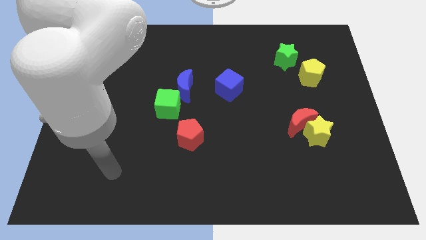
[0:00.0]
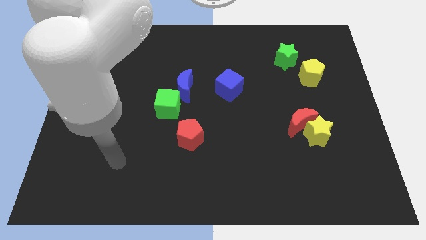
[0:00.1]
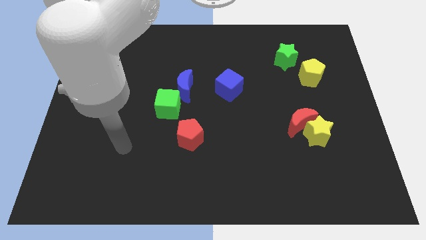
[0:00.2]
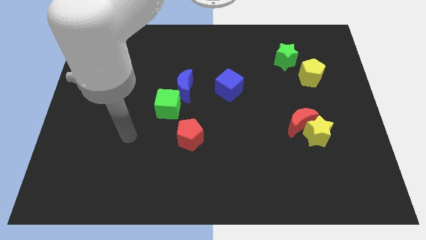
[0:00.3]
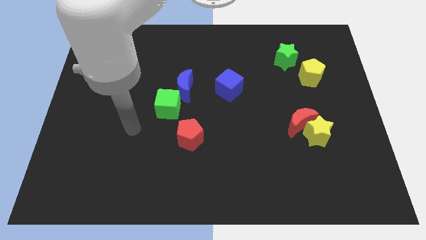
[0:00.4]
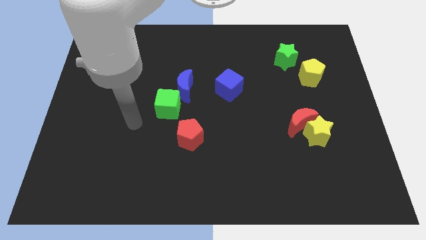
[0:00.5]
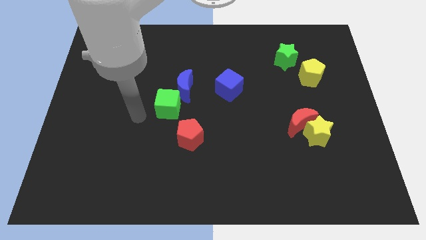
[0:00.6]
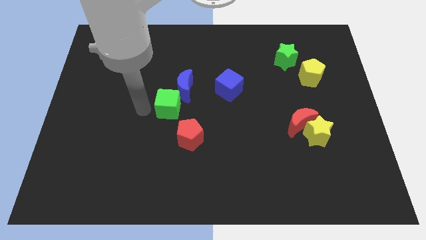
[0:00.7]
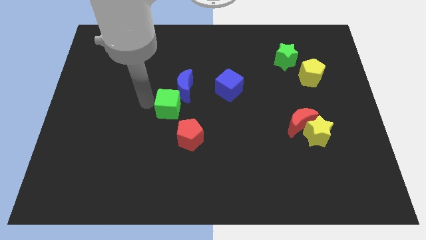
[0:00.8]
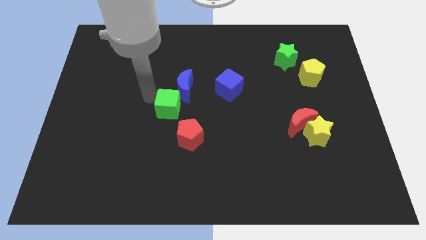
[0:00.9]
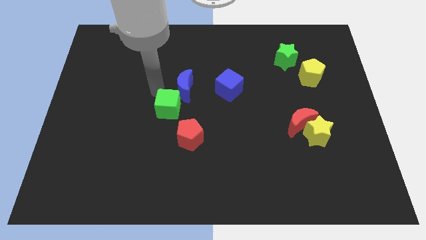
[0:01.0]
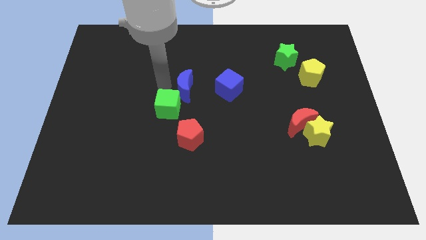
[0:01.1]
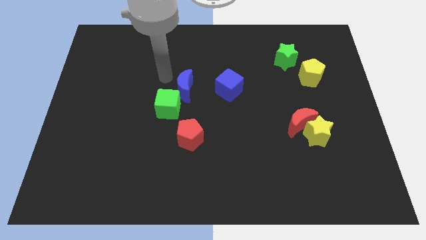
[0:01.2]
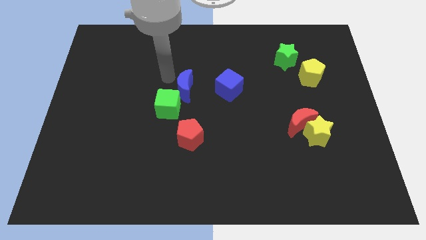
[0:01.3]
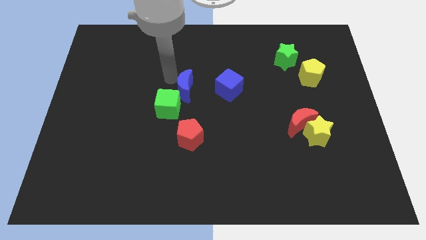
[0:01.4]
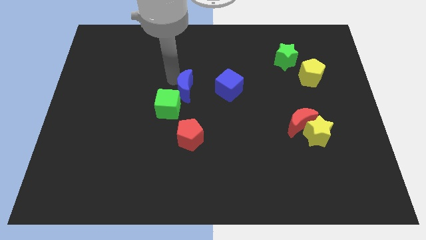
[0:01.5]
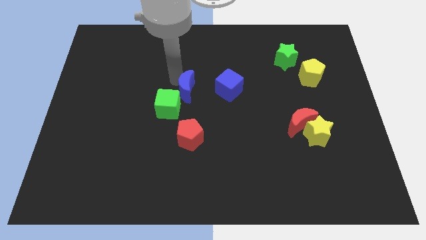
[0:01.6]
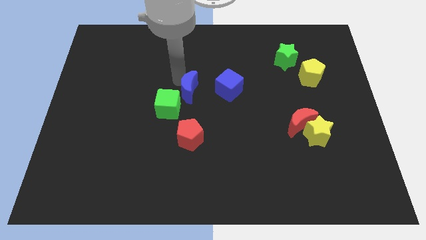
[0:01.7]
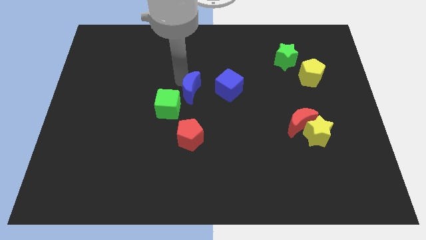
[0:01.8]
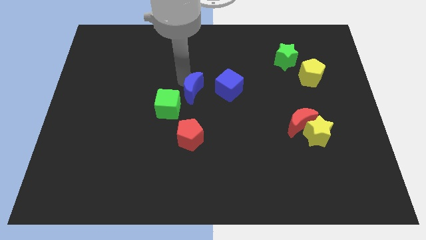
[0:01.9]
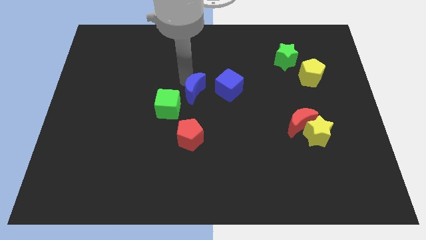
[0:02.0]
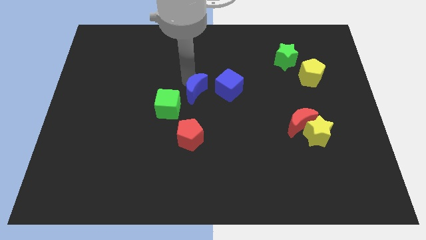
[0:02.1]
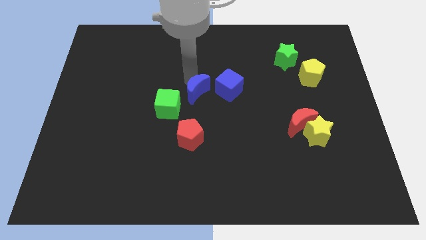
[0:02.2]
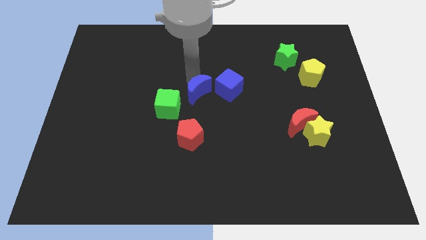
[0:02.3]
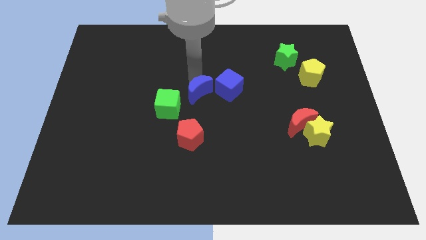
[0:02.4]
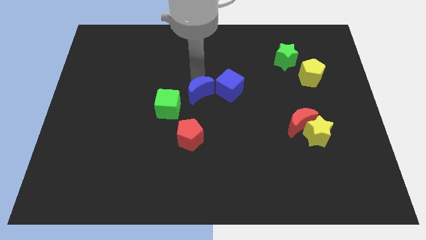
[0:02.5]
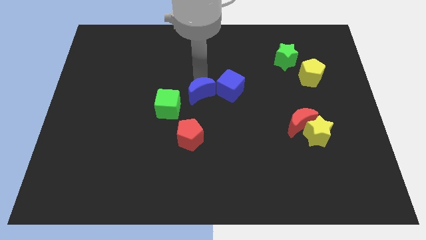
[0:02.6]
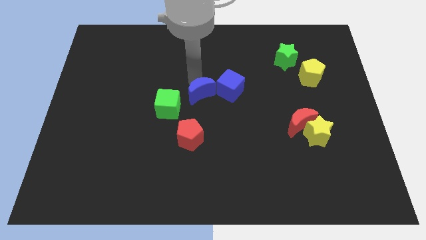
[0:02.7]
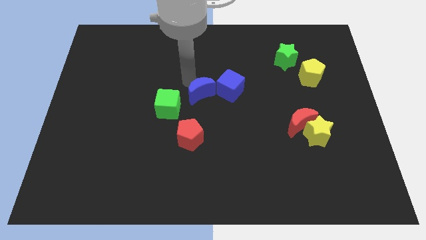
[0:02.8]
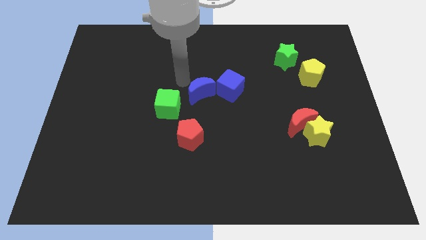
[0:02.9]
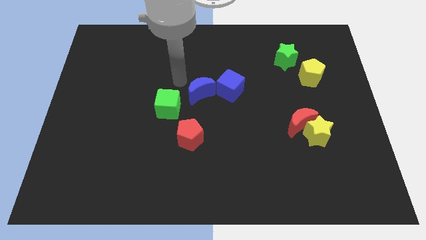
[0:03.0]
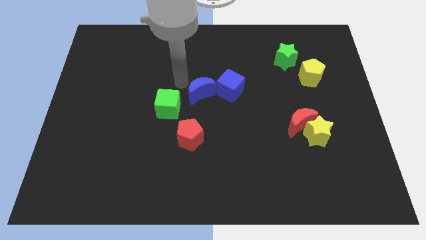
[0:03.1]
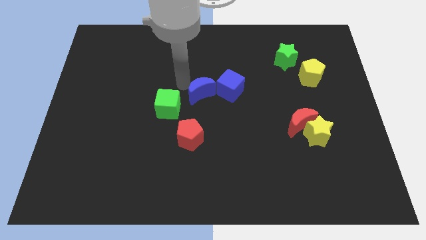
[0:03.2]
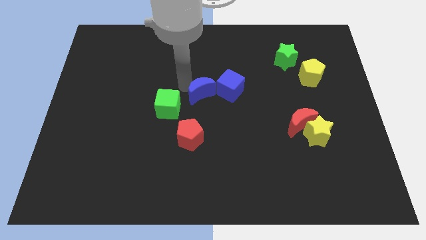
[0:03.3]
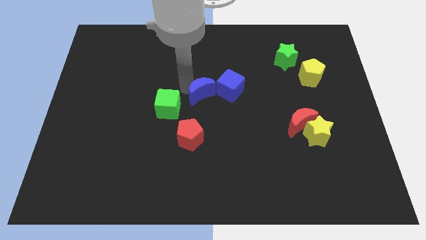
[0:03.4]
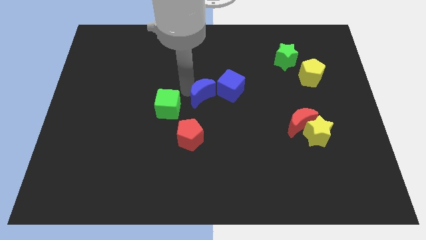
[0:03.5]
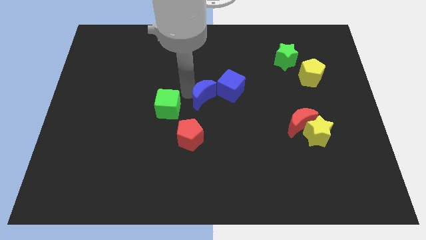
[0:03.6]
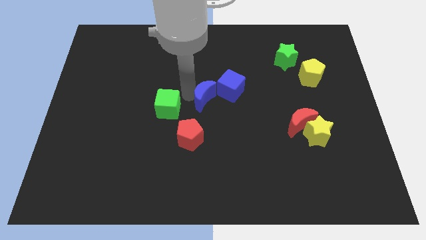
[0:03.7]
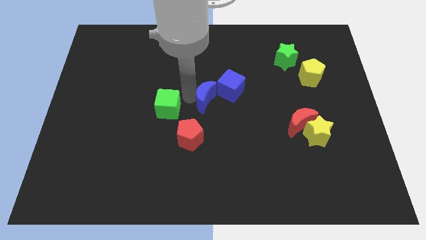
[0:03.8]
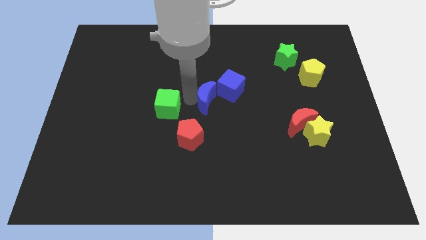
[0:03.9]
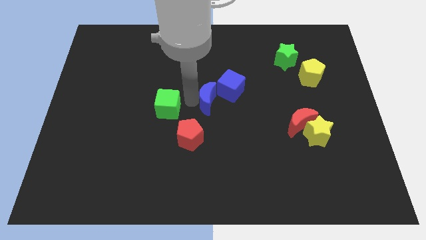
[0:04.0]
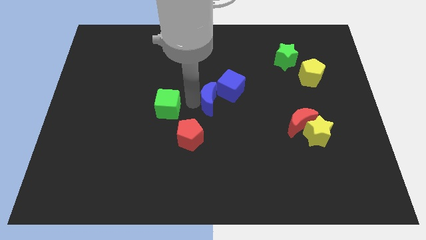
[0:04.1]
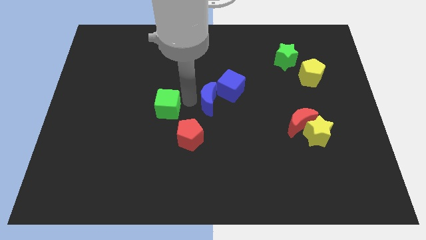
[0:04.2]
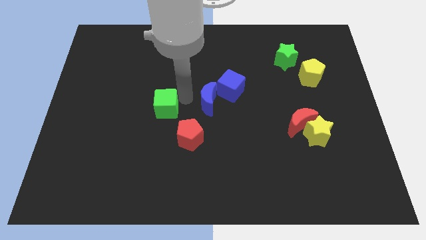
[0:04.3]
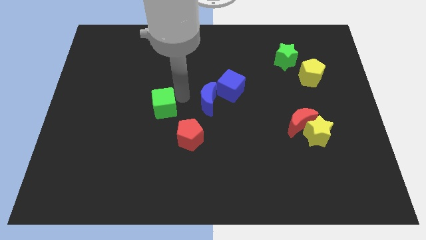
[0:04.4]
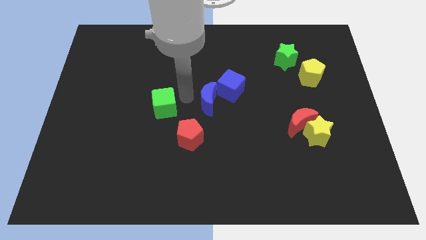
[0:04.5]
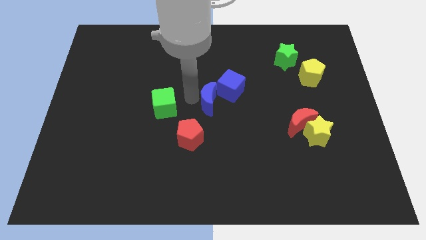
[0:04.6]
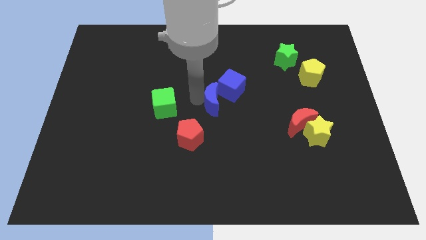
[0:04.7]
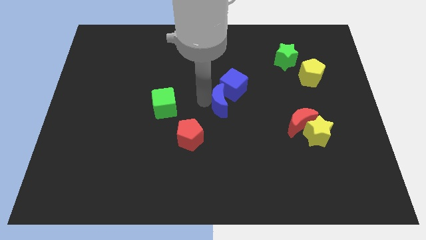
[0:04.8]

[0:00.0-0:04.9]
move the blue moon a little to the right

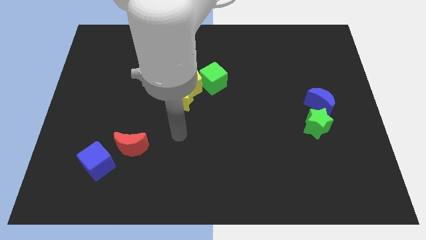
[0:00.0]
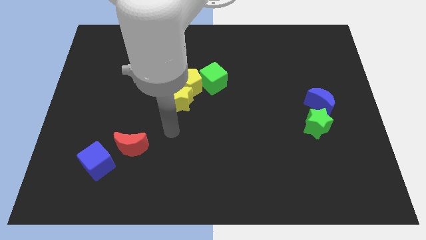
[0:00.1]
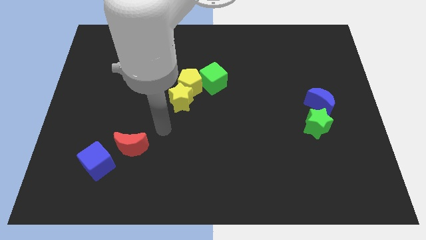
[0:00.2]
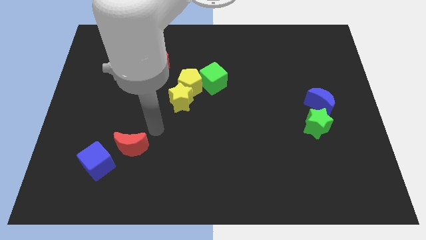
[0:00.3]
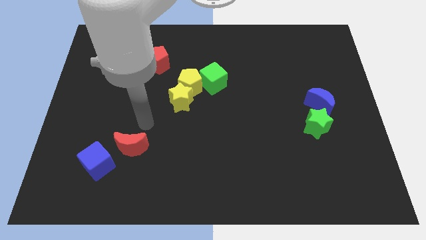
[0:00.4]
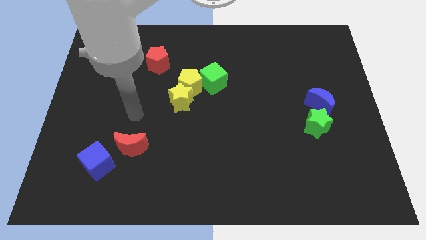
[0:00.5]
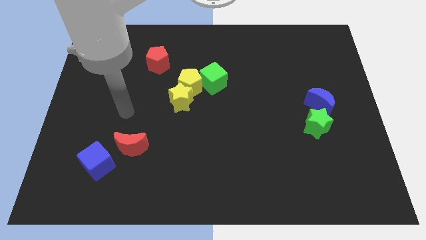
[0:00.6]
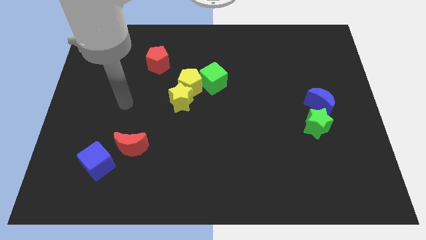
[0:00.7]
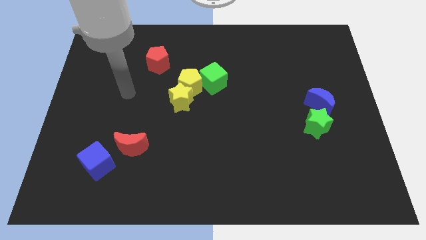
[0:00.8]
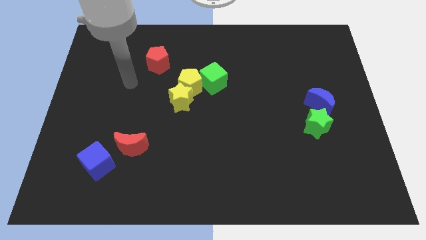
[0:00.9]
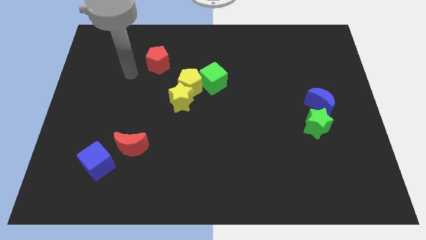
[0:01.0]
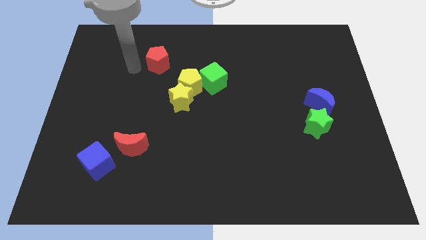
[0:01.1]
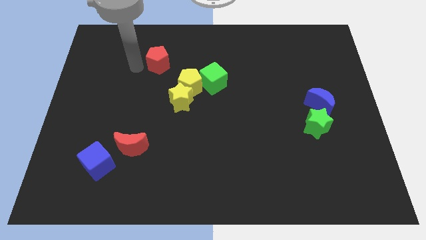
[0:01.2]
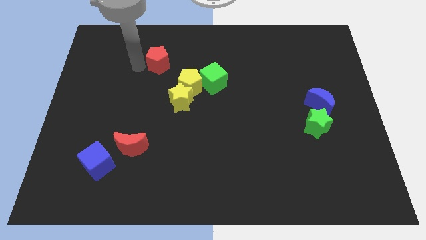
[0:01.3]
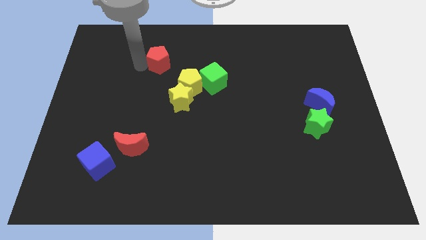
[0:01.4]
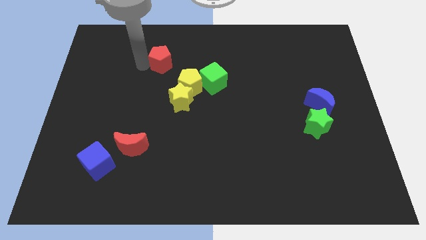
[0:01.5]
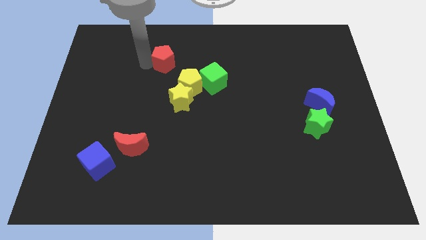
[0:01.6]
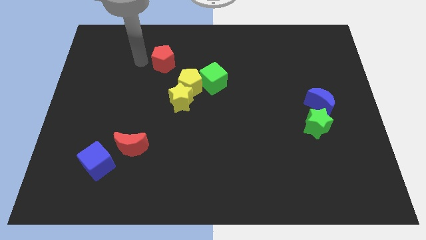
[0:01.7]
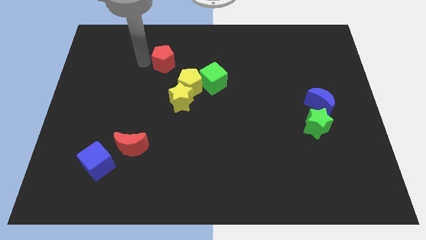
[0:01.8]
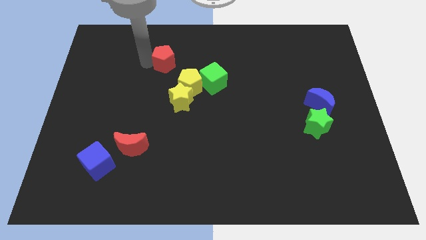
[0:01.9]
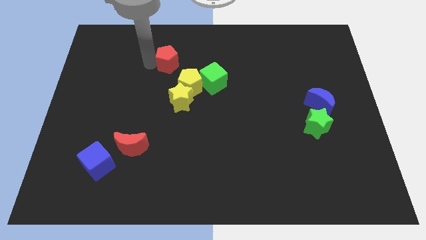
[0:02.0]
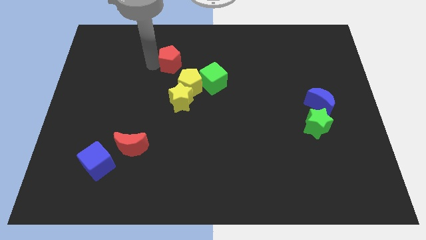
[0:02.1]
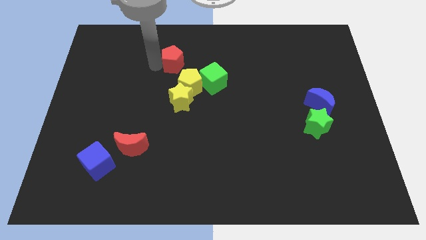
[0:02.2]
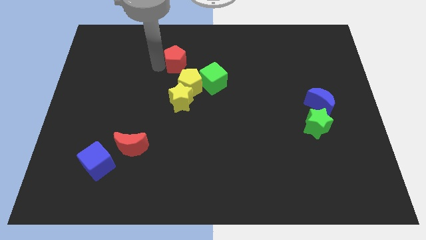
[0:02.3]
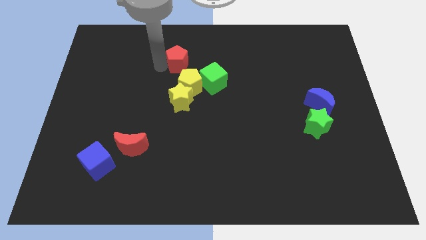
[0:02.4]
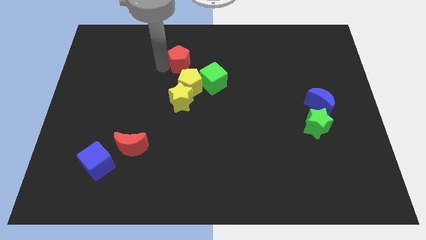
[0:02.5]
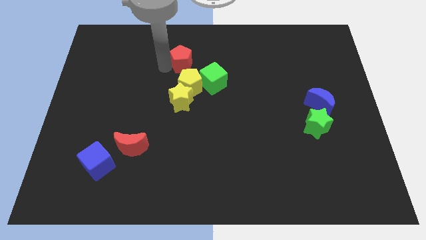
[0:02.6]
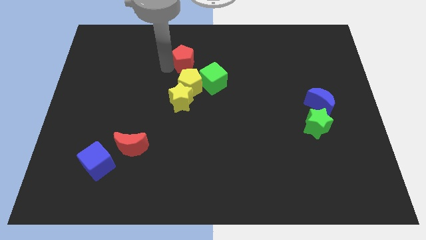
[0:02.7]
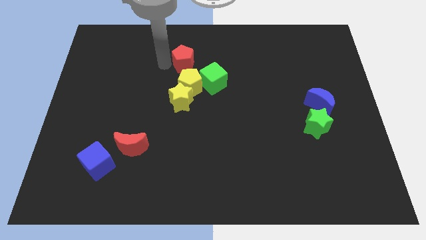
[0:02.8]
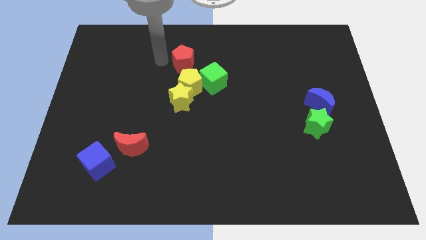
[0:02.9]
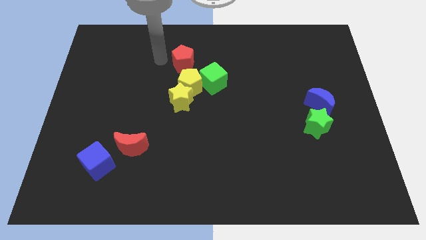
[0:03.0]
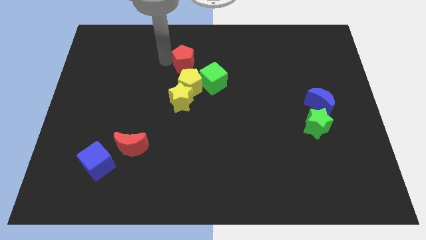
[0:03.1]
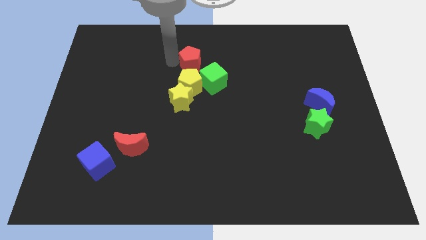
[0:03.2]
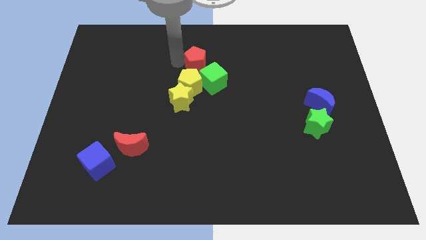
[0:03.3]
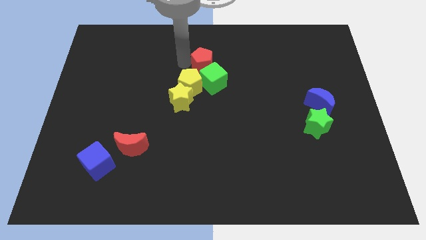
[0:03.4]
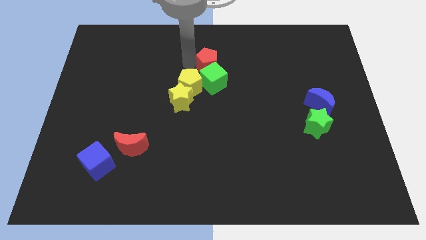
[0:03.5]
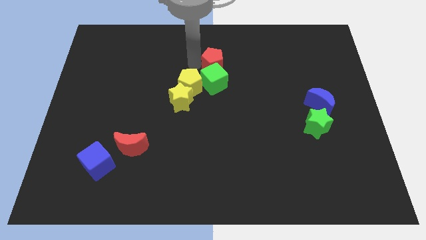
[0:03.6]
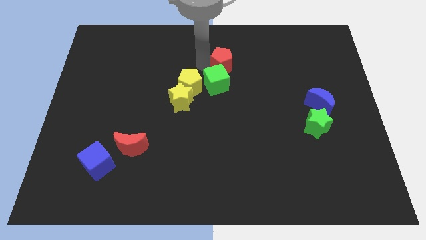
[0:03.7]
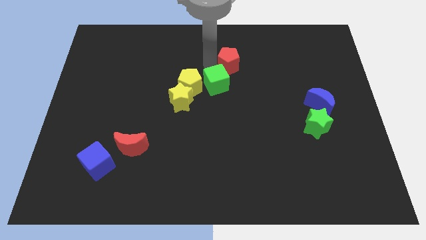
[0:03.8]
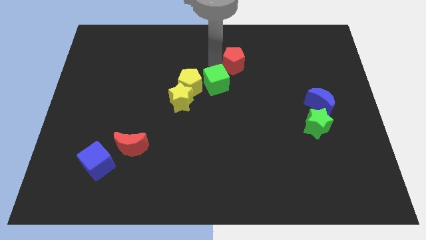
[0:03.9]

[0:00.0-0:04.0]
push the red pentagon to the right
